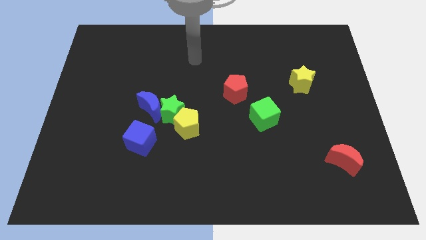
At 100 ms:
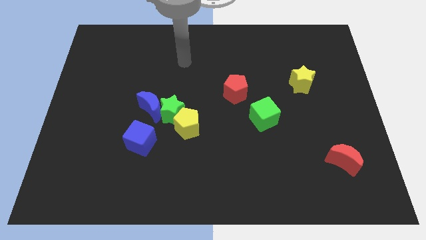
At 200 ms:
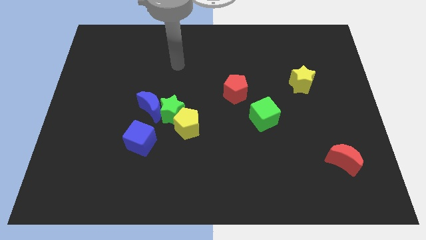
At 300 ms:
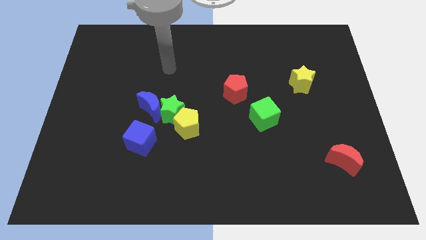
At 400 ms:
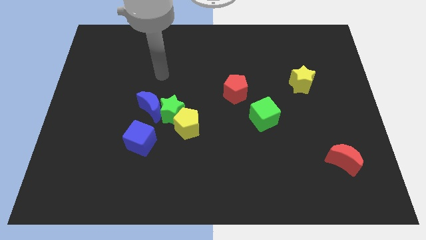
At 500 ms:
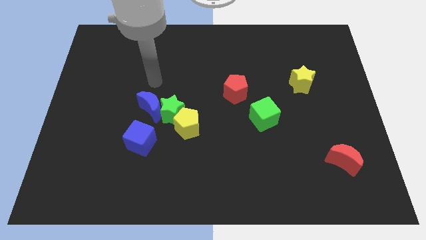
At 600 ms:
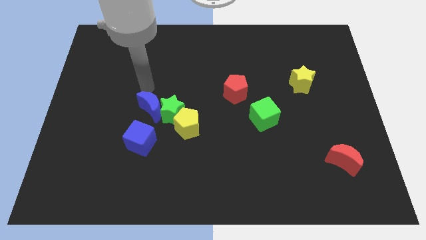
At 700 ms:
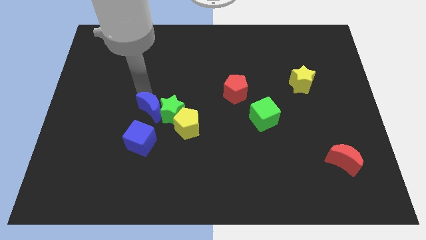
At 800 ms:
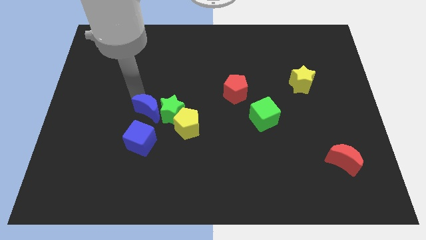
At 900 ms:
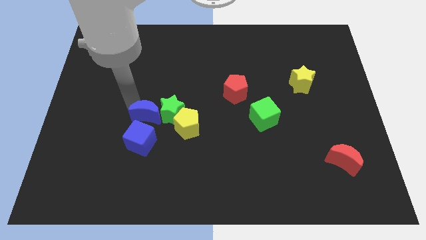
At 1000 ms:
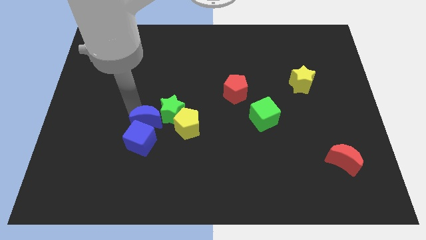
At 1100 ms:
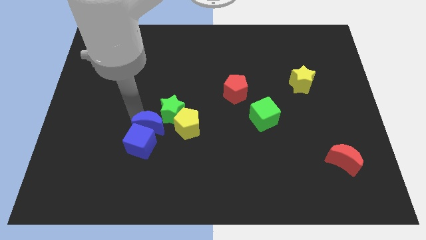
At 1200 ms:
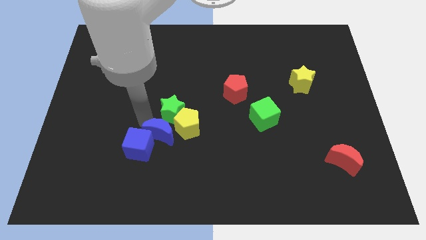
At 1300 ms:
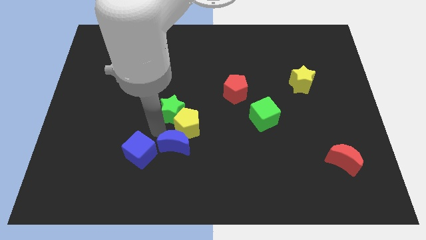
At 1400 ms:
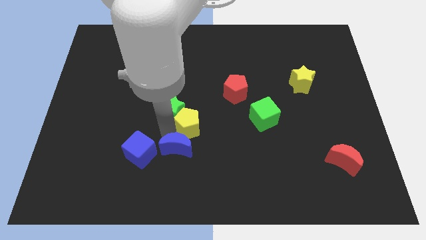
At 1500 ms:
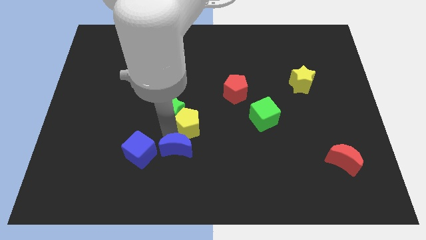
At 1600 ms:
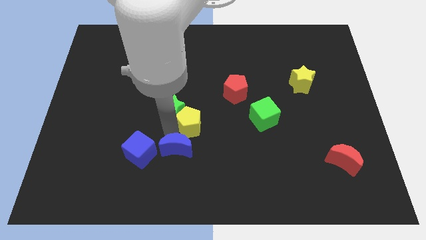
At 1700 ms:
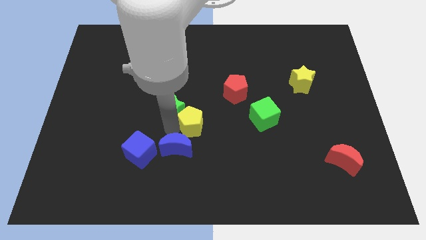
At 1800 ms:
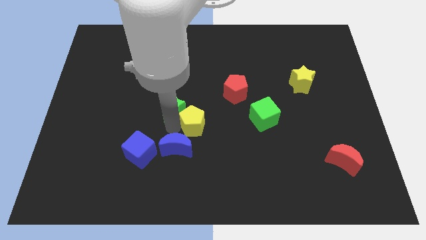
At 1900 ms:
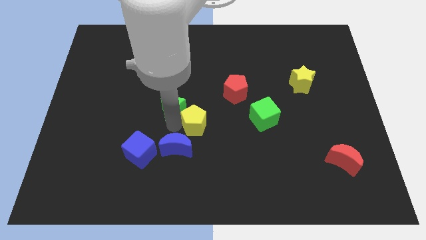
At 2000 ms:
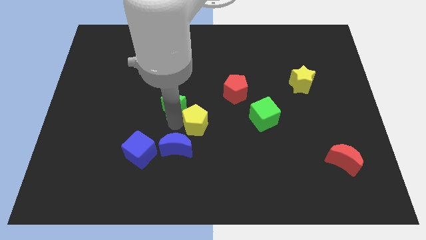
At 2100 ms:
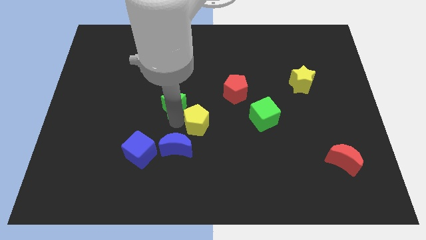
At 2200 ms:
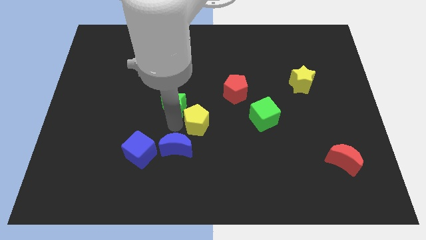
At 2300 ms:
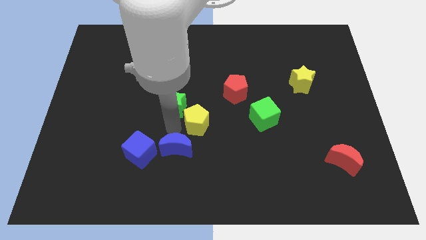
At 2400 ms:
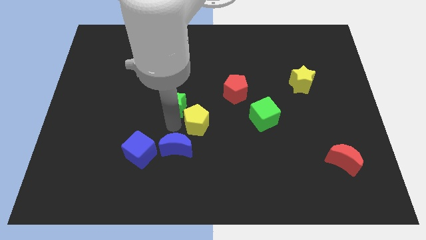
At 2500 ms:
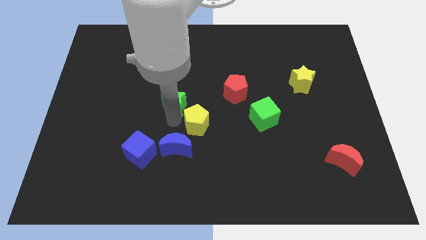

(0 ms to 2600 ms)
move the green star away from the group of blocks

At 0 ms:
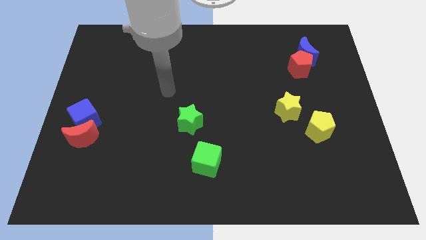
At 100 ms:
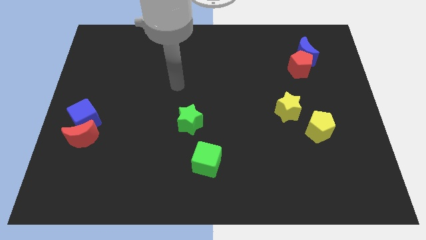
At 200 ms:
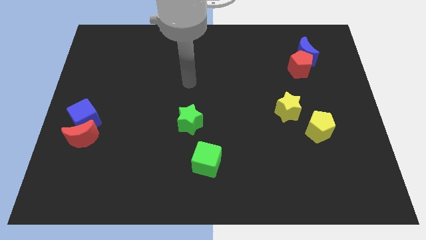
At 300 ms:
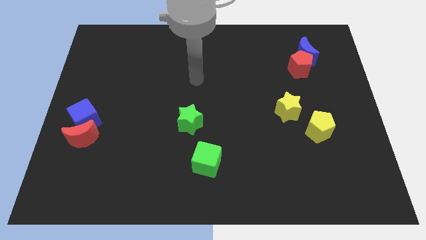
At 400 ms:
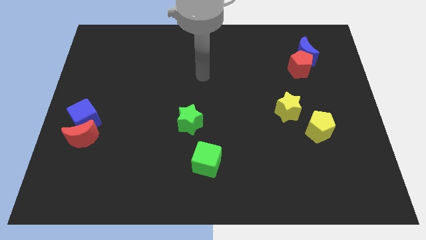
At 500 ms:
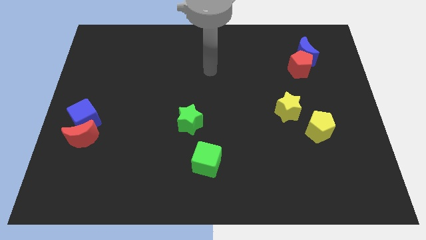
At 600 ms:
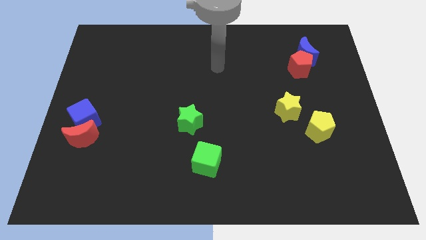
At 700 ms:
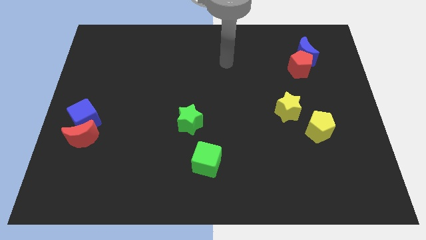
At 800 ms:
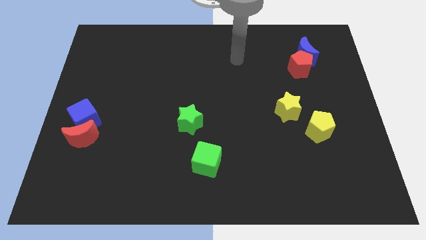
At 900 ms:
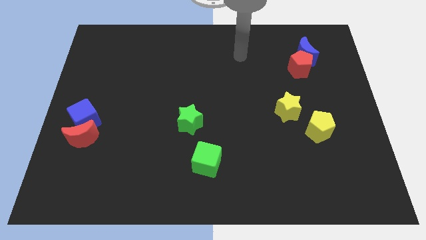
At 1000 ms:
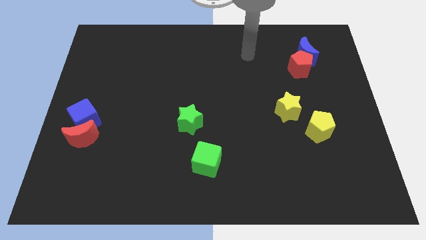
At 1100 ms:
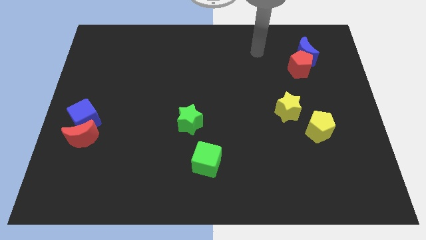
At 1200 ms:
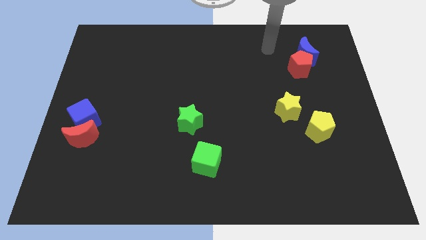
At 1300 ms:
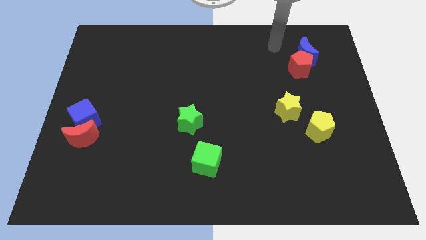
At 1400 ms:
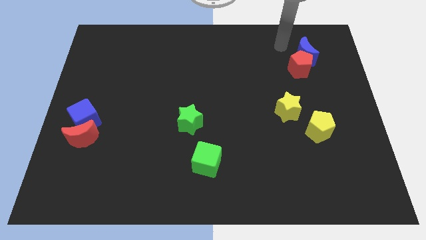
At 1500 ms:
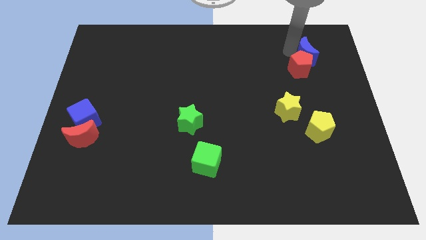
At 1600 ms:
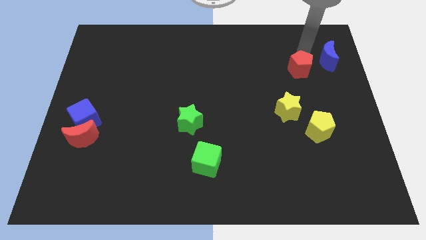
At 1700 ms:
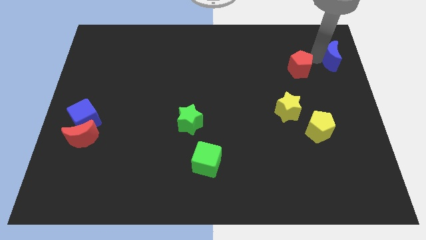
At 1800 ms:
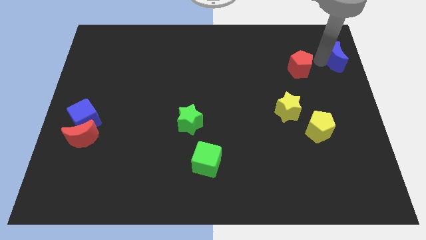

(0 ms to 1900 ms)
pull the red pentagon apart from the blue moon

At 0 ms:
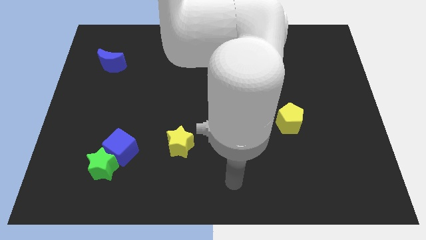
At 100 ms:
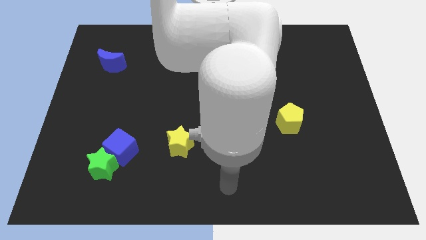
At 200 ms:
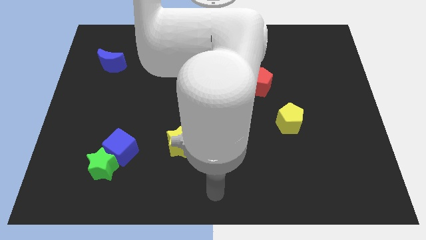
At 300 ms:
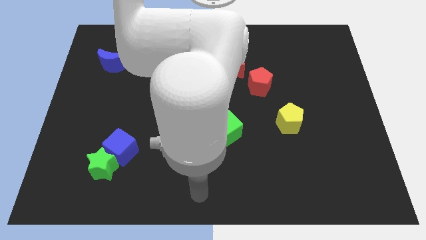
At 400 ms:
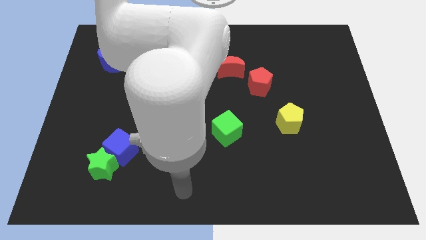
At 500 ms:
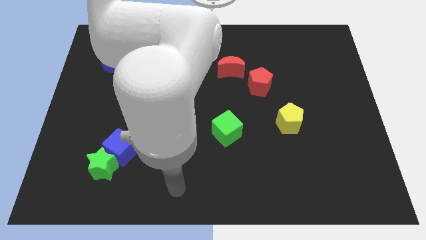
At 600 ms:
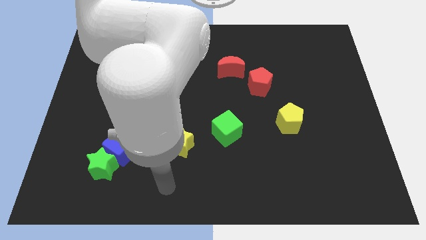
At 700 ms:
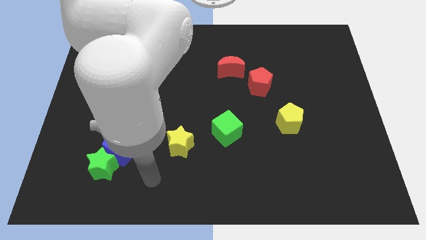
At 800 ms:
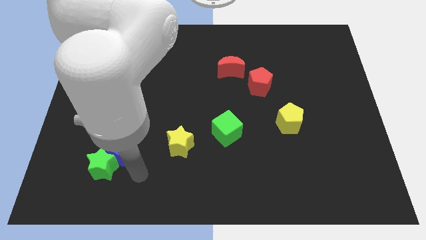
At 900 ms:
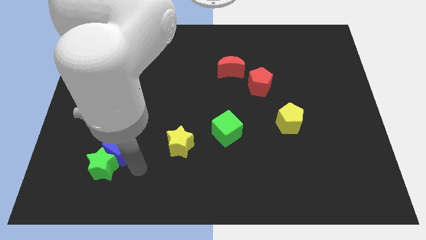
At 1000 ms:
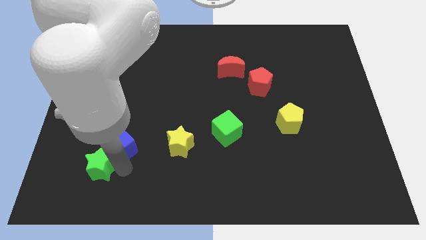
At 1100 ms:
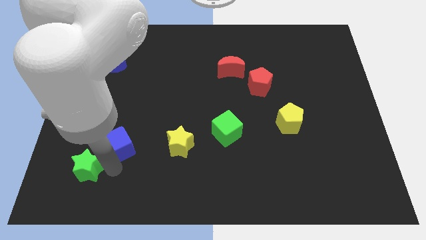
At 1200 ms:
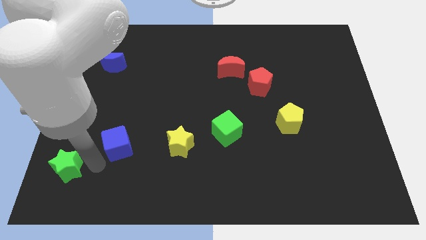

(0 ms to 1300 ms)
pull the blue cube apart from the green star

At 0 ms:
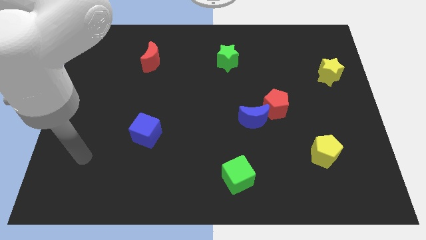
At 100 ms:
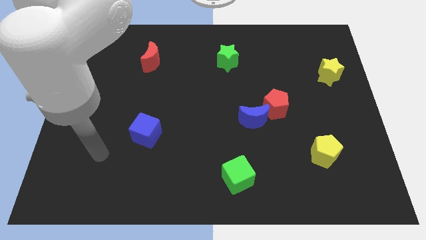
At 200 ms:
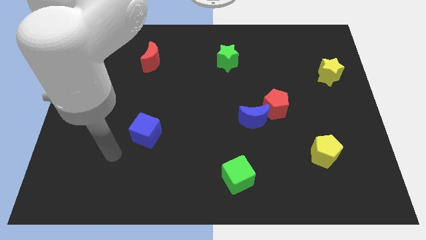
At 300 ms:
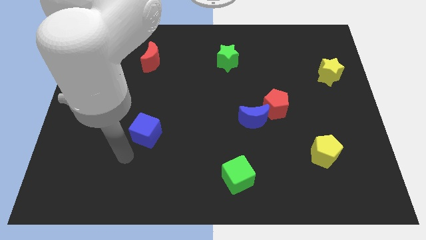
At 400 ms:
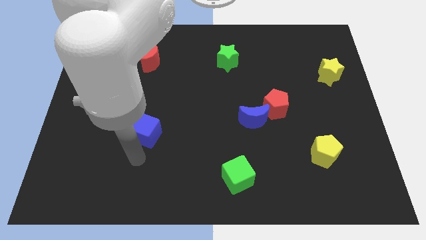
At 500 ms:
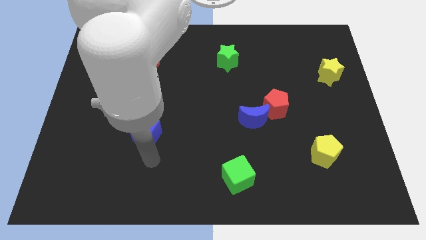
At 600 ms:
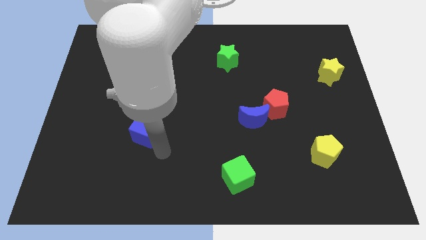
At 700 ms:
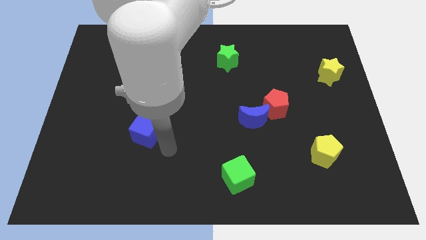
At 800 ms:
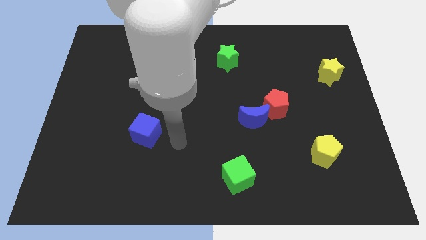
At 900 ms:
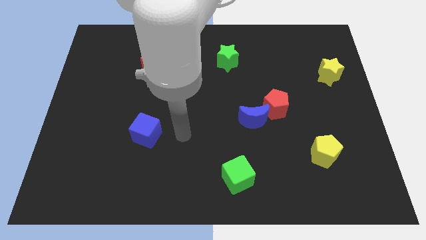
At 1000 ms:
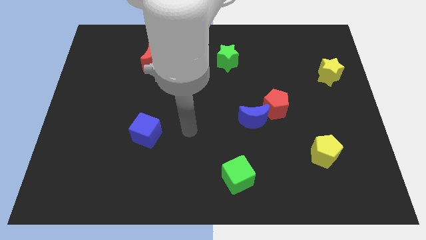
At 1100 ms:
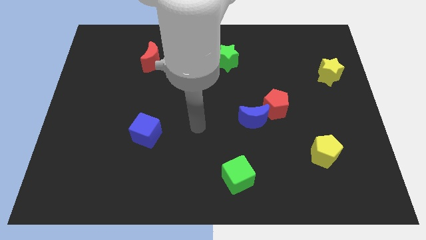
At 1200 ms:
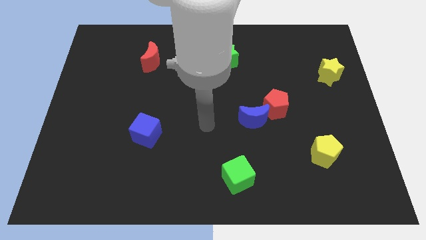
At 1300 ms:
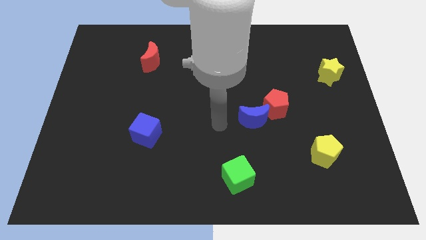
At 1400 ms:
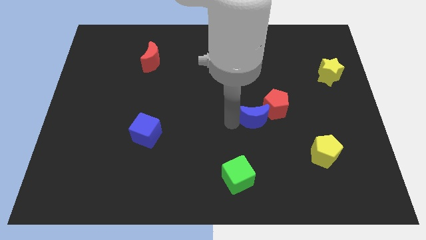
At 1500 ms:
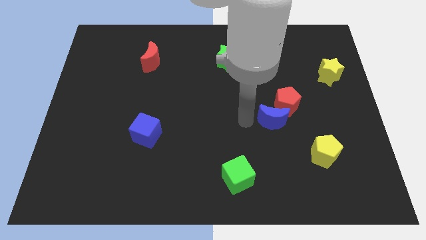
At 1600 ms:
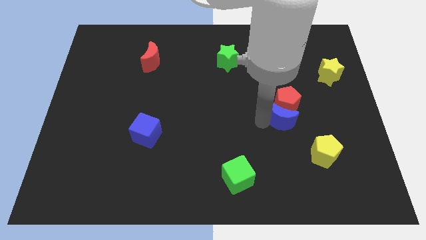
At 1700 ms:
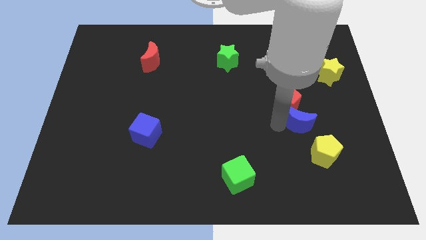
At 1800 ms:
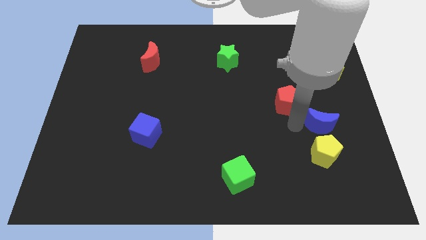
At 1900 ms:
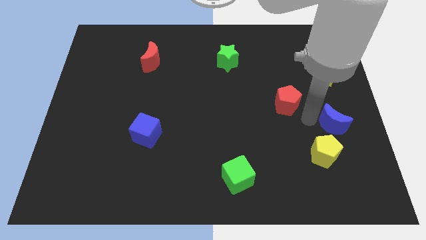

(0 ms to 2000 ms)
separate the red pentagon from the blue moon

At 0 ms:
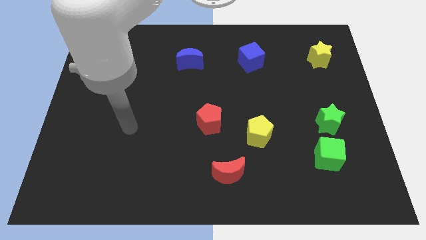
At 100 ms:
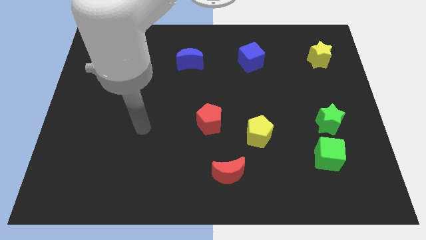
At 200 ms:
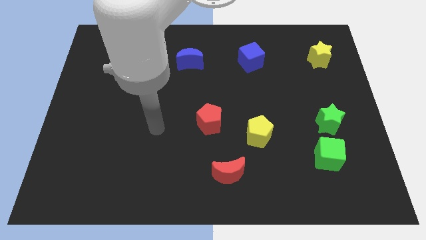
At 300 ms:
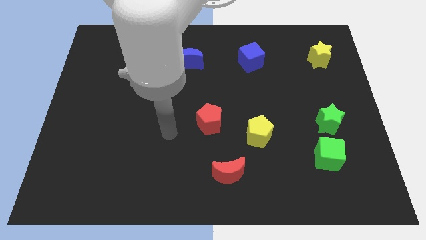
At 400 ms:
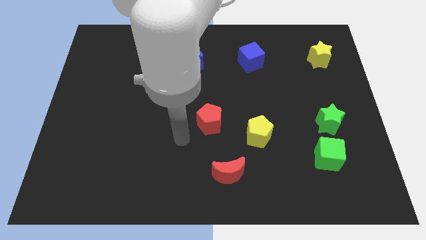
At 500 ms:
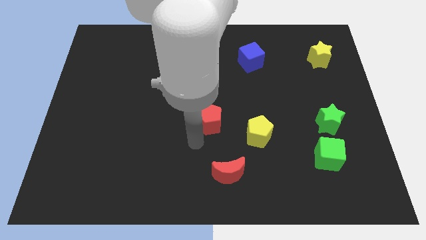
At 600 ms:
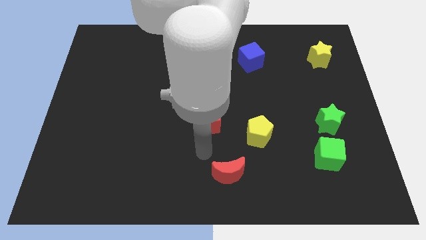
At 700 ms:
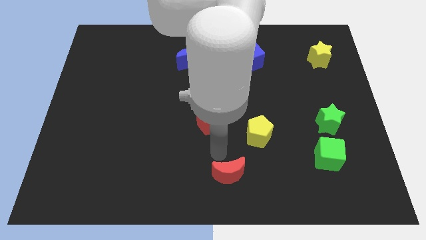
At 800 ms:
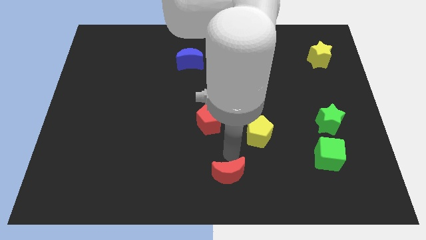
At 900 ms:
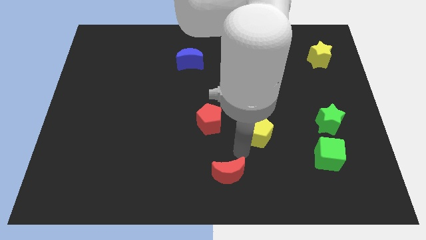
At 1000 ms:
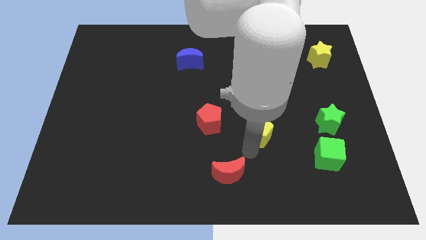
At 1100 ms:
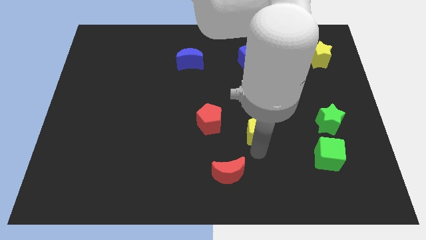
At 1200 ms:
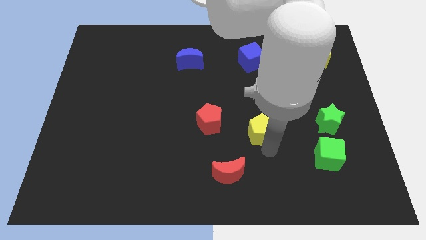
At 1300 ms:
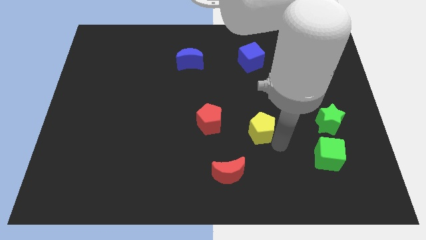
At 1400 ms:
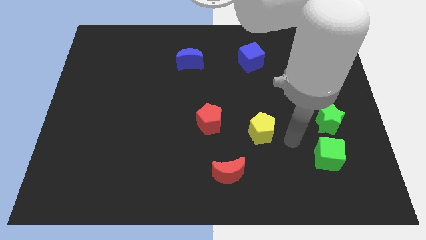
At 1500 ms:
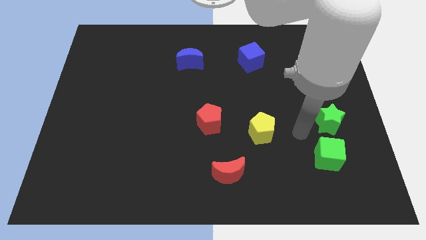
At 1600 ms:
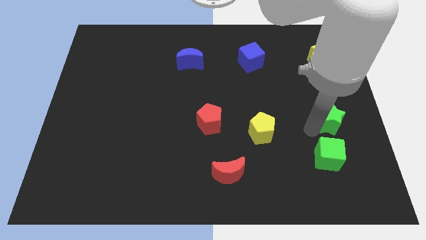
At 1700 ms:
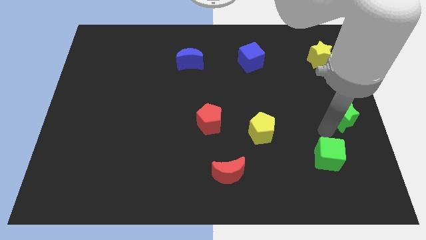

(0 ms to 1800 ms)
move the green cube away from the green star
